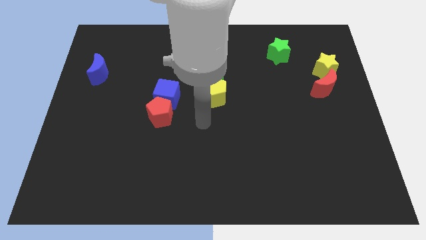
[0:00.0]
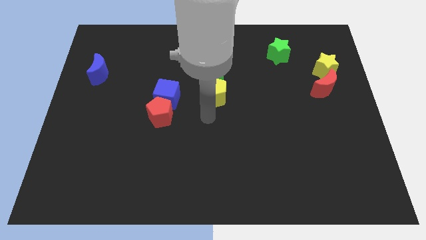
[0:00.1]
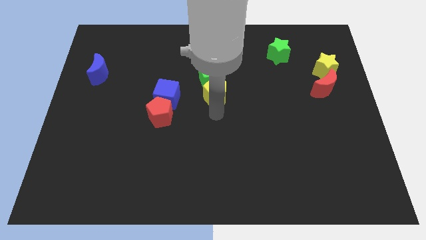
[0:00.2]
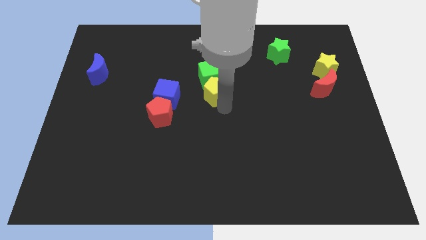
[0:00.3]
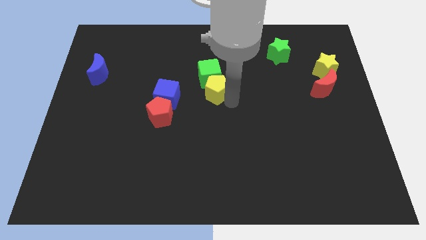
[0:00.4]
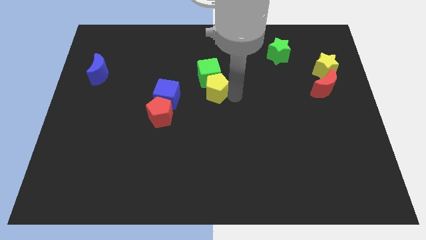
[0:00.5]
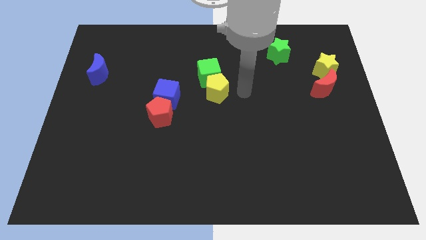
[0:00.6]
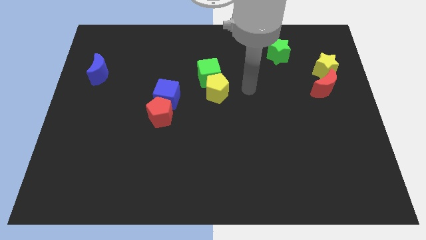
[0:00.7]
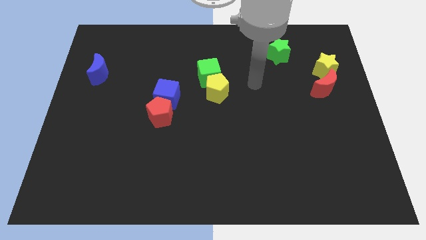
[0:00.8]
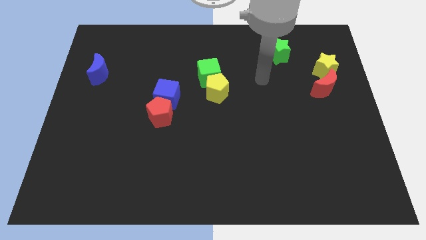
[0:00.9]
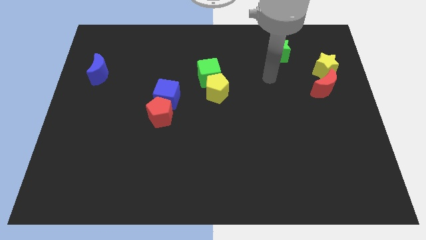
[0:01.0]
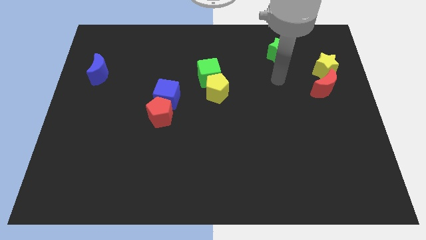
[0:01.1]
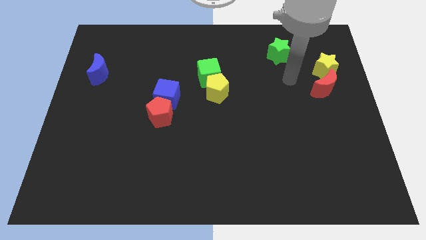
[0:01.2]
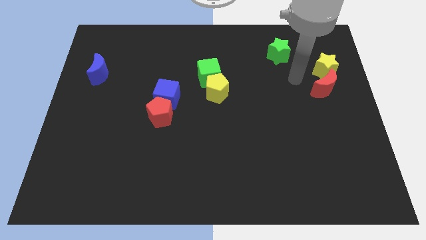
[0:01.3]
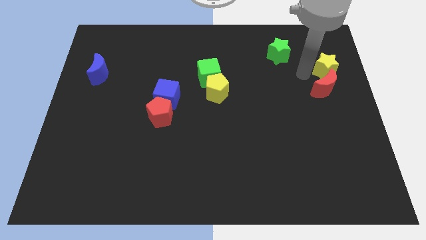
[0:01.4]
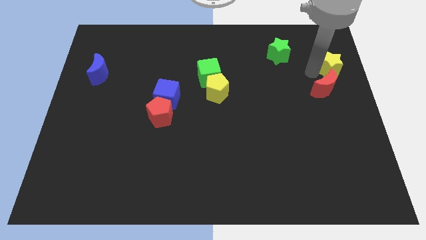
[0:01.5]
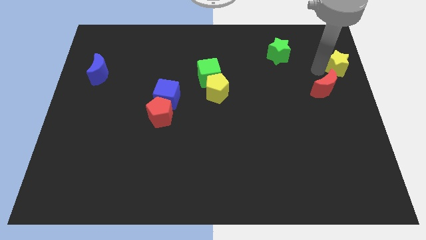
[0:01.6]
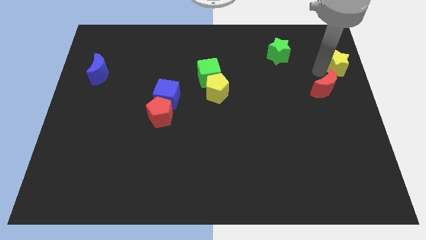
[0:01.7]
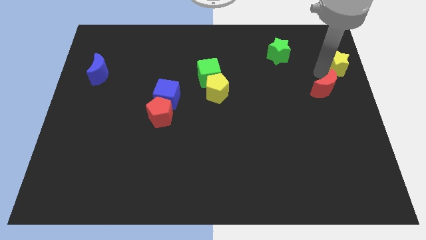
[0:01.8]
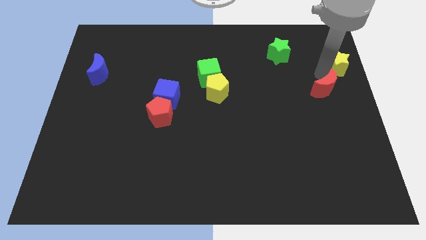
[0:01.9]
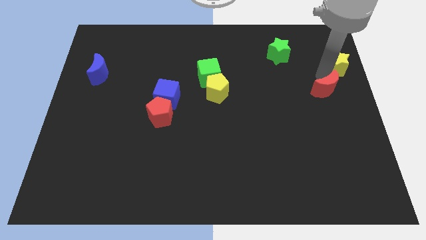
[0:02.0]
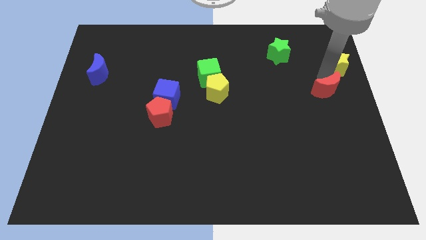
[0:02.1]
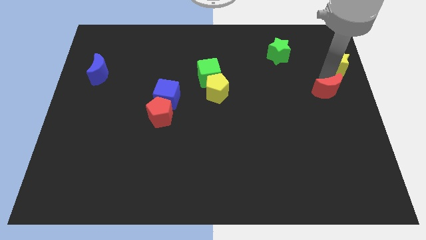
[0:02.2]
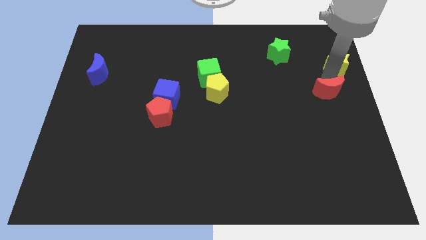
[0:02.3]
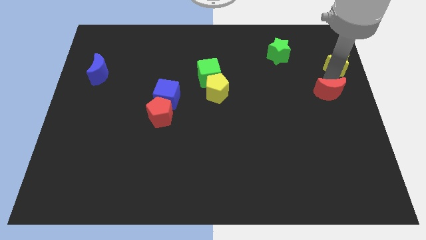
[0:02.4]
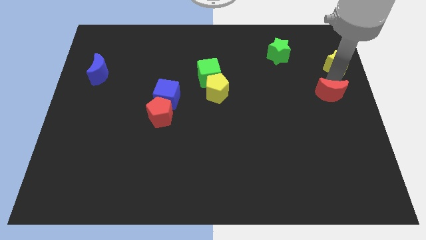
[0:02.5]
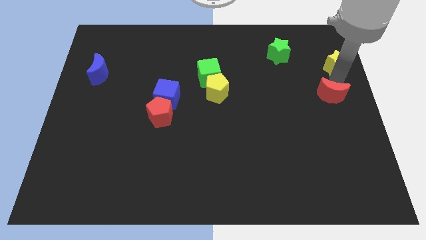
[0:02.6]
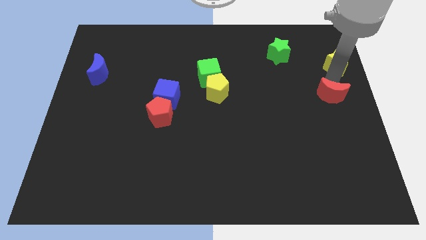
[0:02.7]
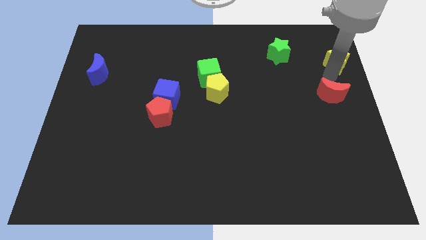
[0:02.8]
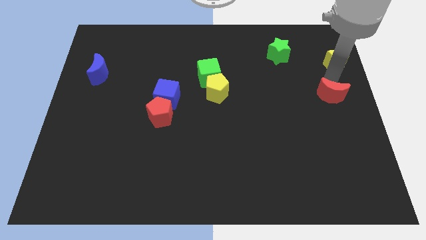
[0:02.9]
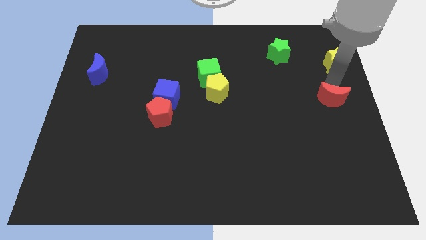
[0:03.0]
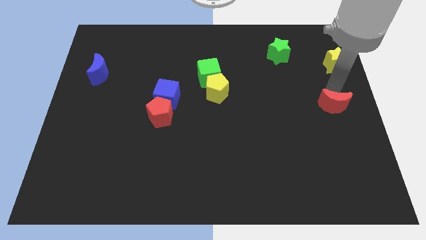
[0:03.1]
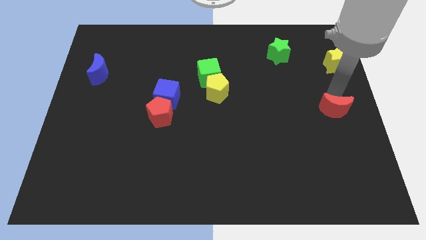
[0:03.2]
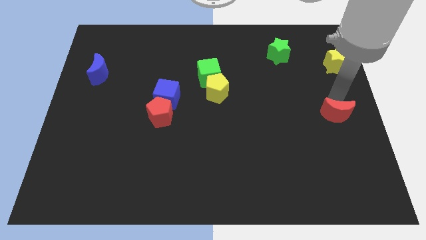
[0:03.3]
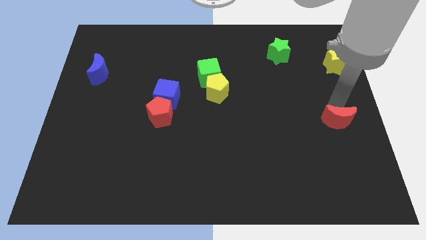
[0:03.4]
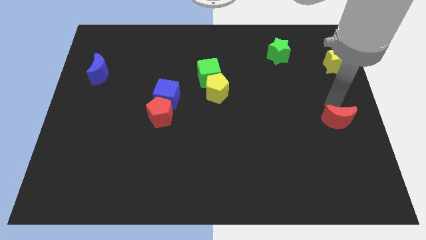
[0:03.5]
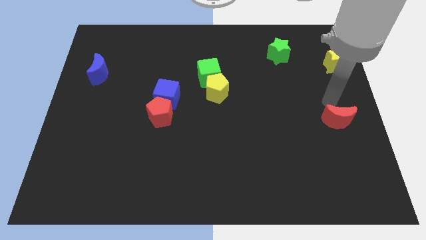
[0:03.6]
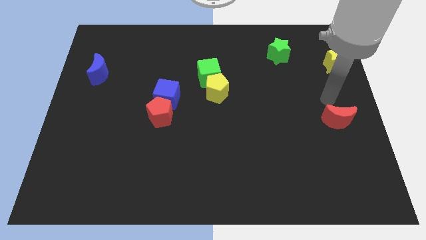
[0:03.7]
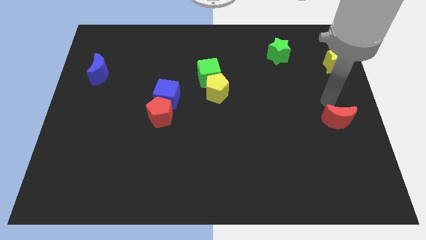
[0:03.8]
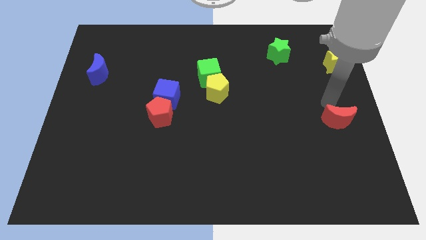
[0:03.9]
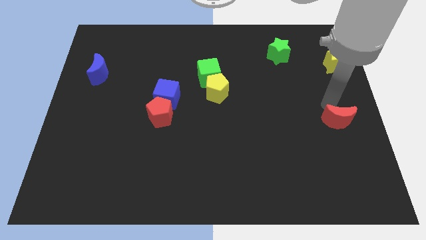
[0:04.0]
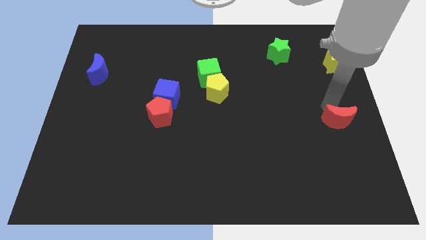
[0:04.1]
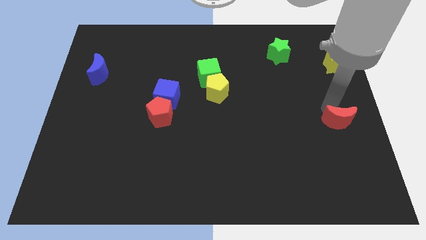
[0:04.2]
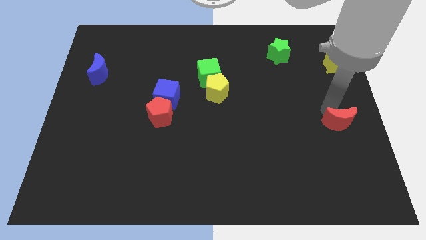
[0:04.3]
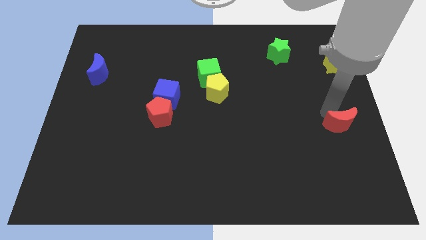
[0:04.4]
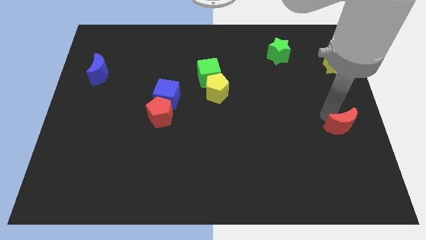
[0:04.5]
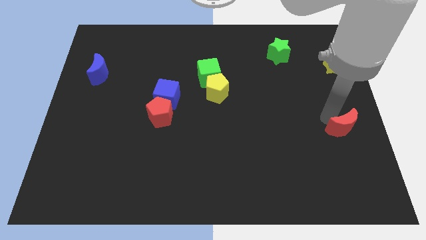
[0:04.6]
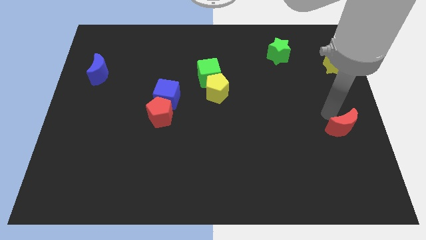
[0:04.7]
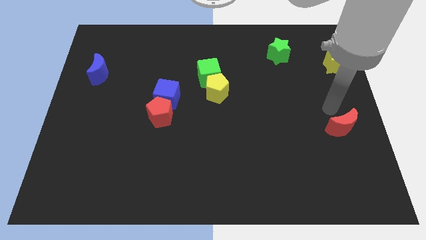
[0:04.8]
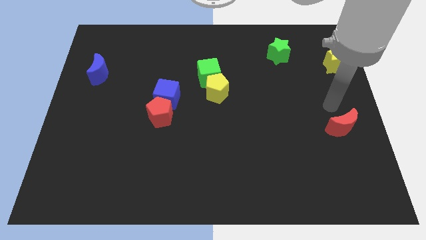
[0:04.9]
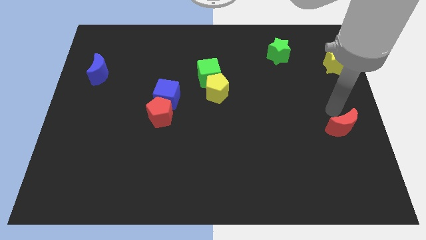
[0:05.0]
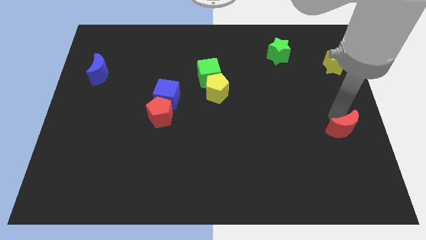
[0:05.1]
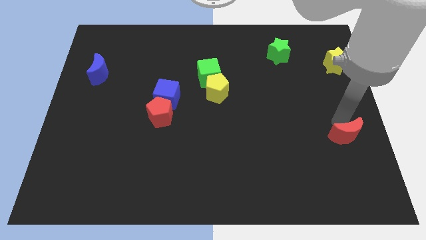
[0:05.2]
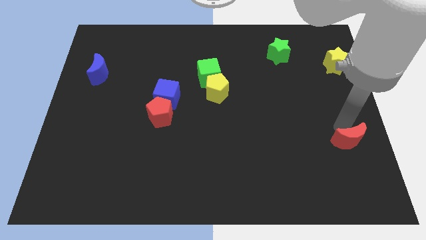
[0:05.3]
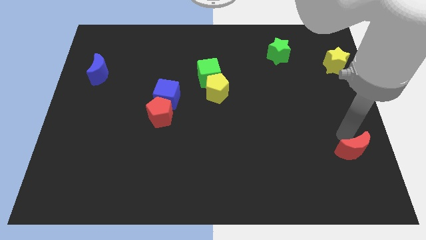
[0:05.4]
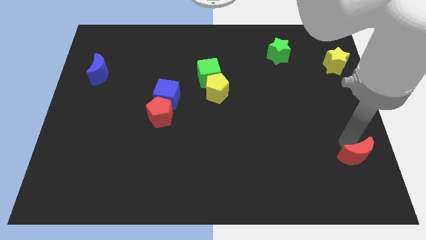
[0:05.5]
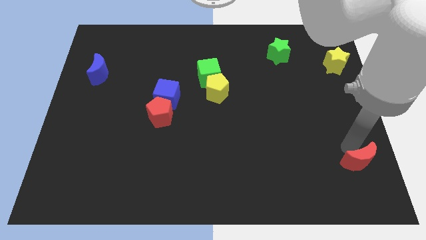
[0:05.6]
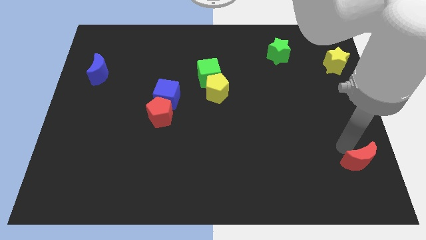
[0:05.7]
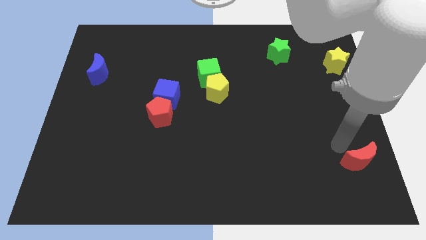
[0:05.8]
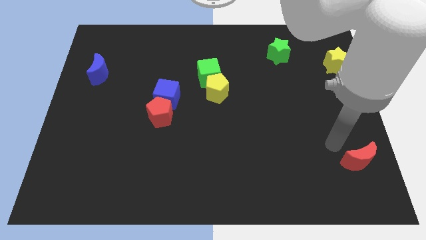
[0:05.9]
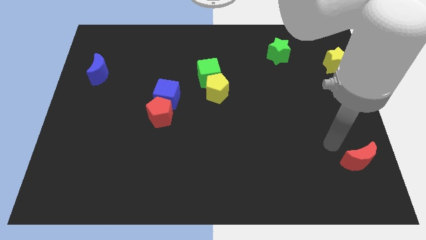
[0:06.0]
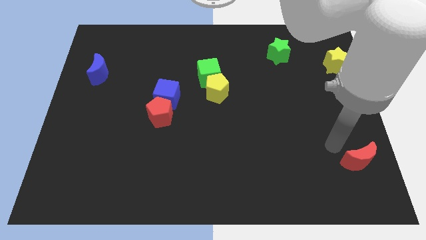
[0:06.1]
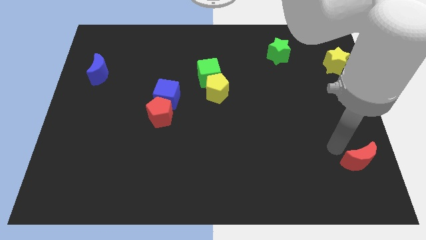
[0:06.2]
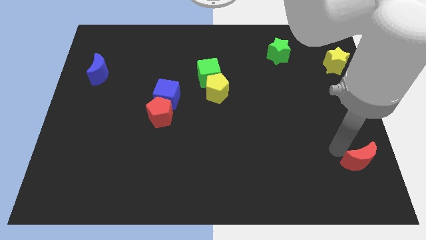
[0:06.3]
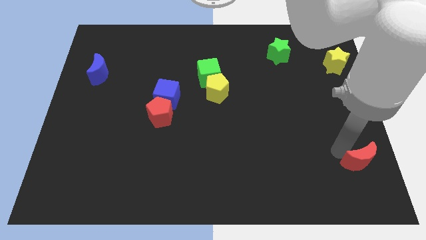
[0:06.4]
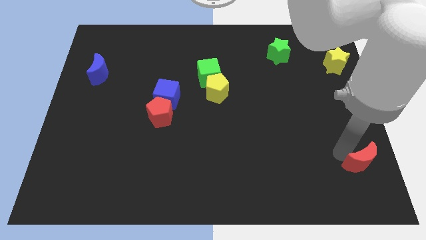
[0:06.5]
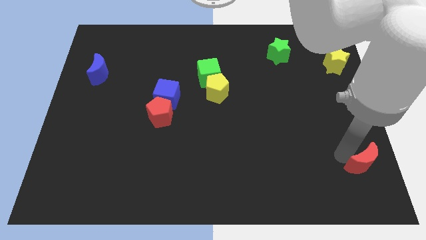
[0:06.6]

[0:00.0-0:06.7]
move the red moon to the lower right corner
